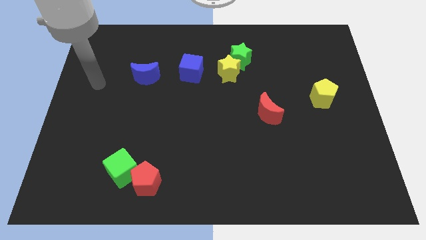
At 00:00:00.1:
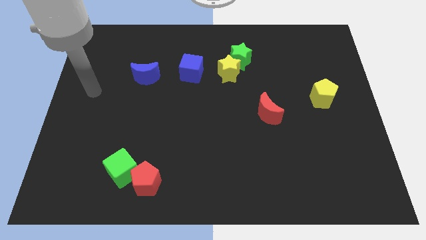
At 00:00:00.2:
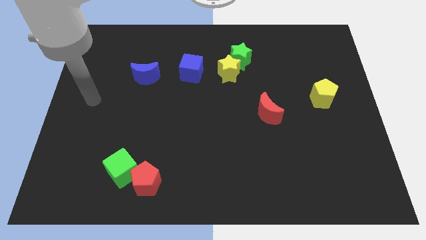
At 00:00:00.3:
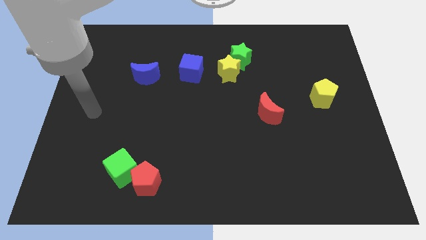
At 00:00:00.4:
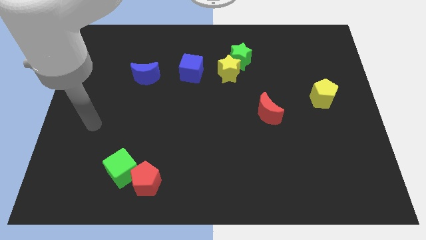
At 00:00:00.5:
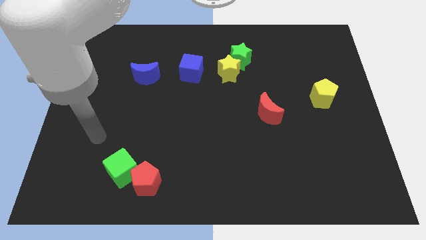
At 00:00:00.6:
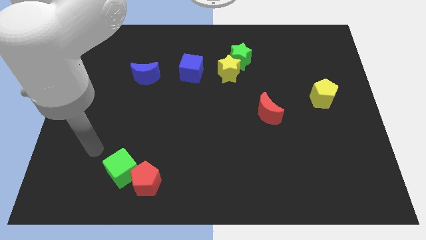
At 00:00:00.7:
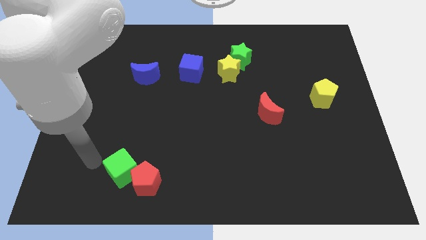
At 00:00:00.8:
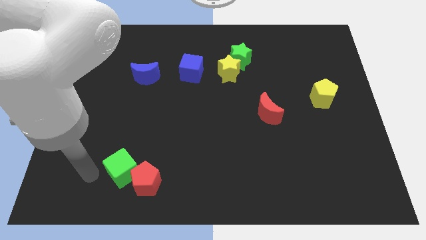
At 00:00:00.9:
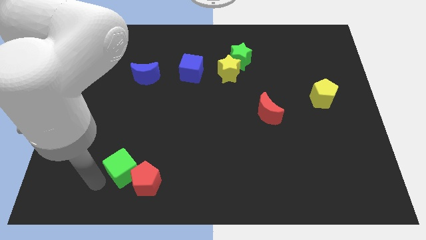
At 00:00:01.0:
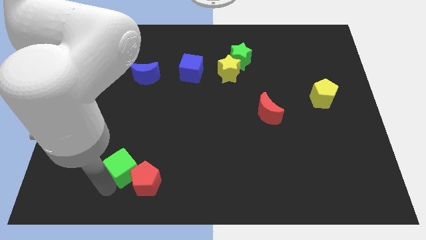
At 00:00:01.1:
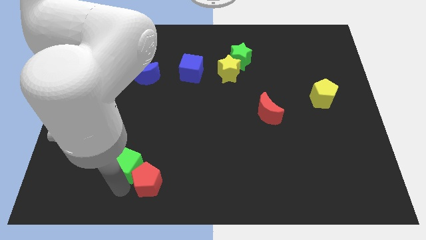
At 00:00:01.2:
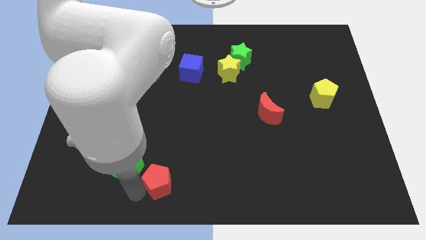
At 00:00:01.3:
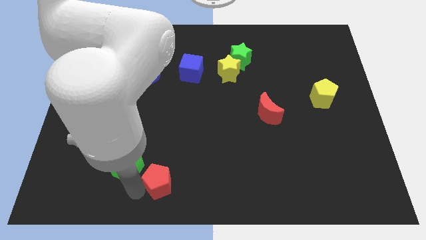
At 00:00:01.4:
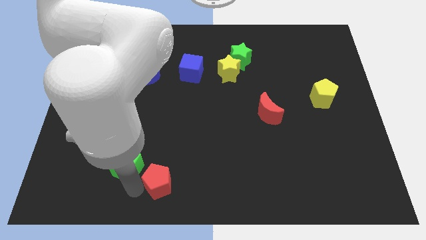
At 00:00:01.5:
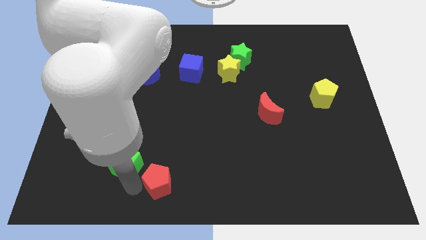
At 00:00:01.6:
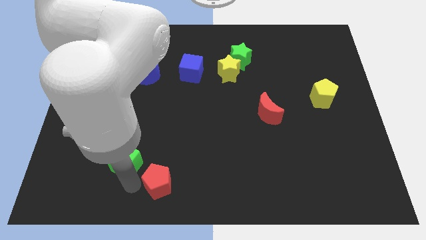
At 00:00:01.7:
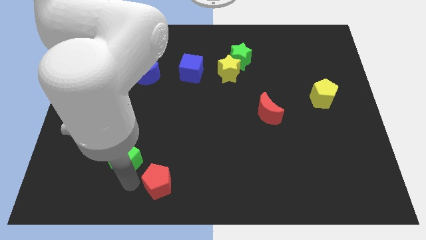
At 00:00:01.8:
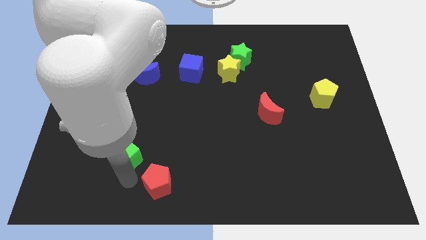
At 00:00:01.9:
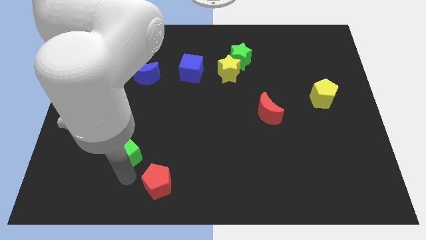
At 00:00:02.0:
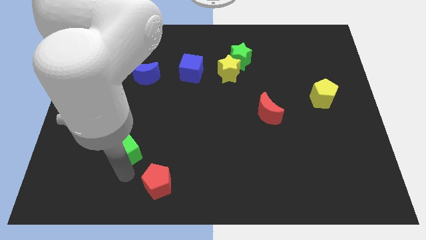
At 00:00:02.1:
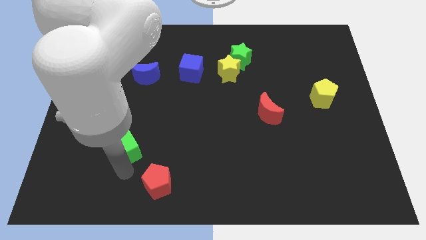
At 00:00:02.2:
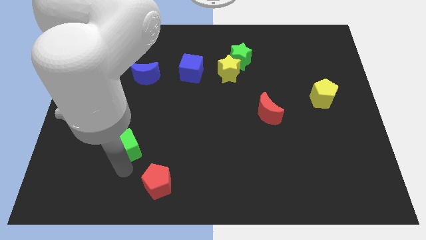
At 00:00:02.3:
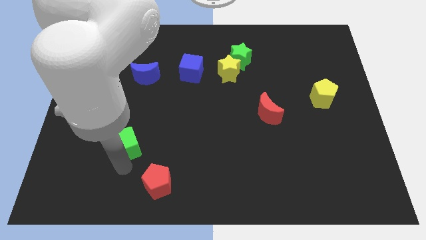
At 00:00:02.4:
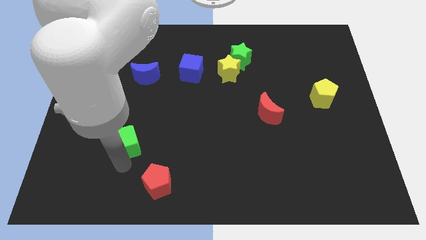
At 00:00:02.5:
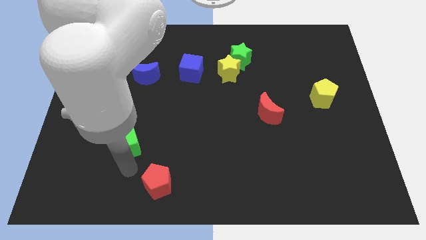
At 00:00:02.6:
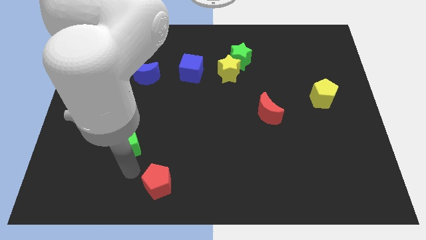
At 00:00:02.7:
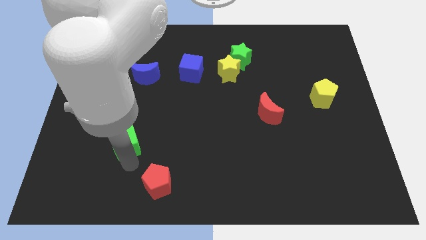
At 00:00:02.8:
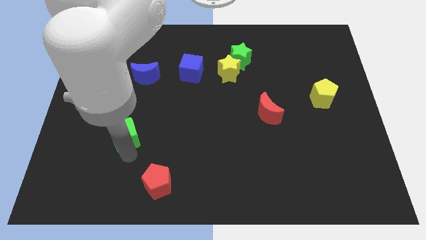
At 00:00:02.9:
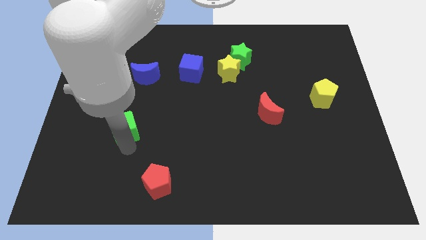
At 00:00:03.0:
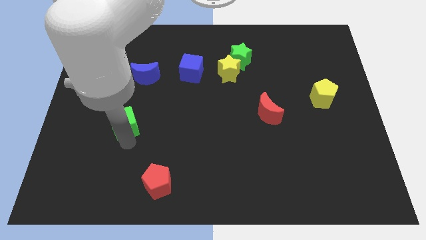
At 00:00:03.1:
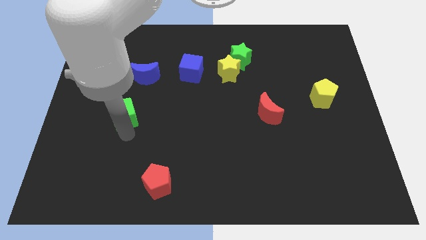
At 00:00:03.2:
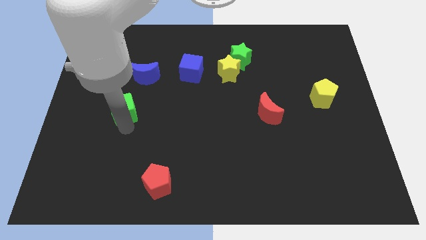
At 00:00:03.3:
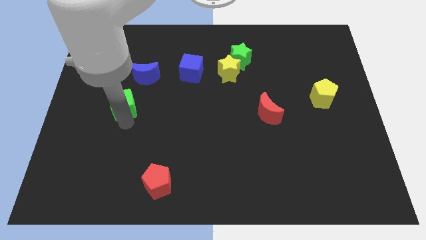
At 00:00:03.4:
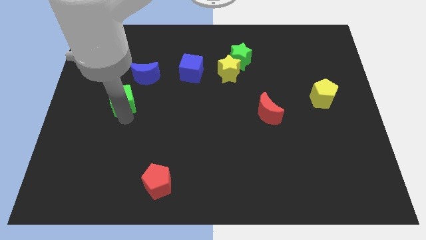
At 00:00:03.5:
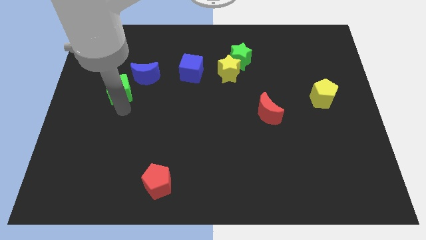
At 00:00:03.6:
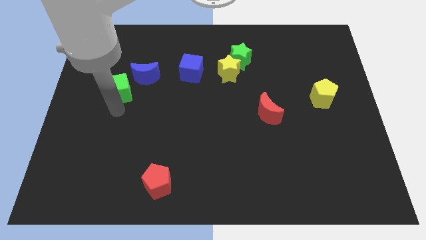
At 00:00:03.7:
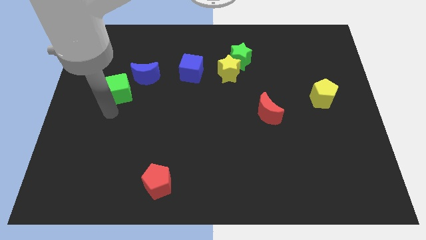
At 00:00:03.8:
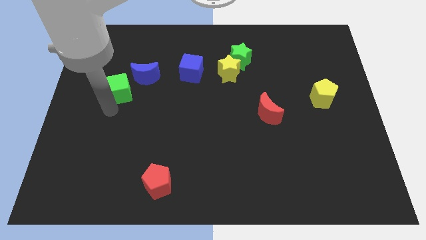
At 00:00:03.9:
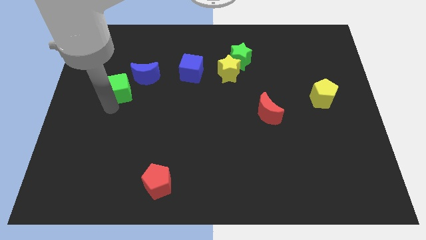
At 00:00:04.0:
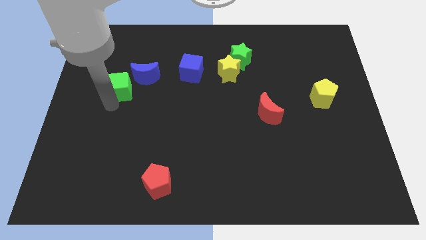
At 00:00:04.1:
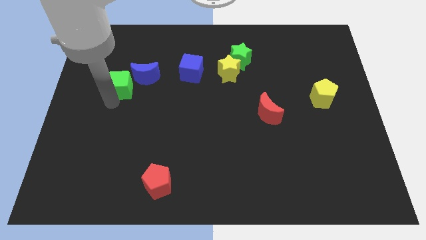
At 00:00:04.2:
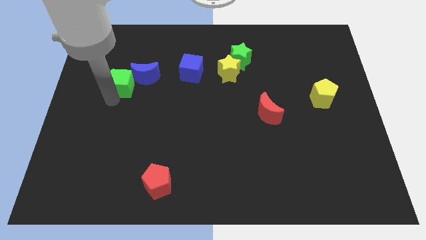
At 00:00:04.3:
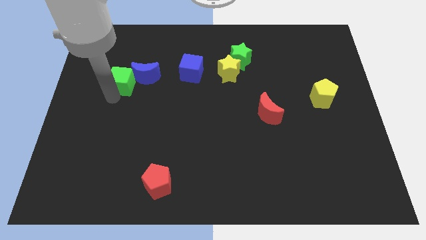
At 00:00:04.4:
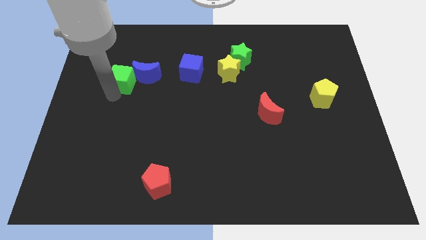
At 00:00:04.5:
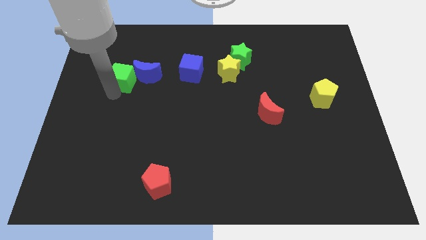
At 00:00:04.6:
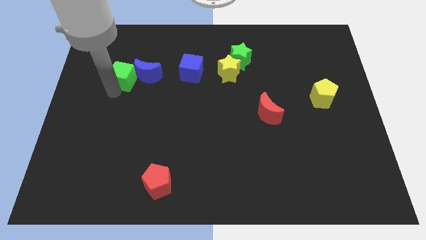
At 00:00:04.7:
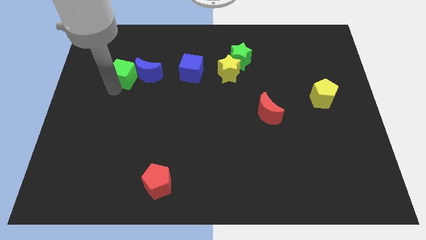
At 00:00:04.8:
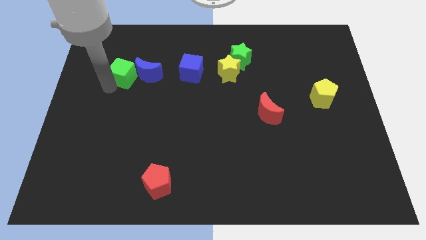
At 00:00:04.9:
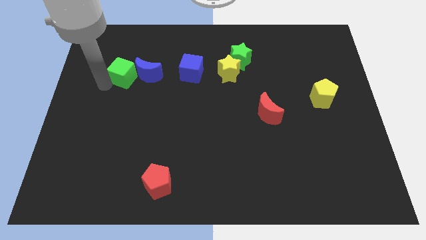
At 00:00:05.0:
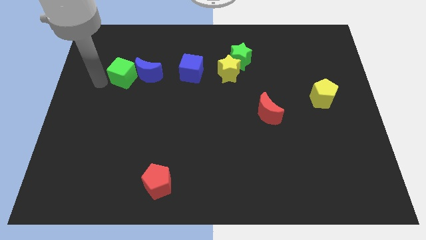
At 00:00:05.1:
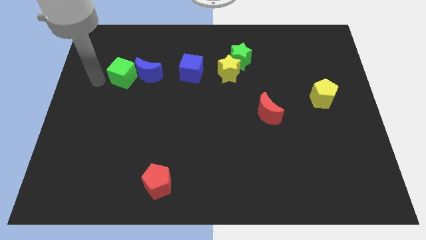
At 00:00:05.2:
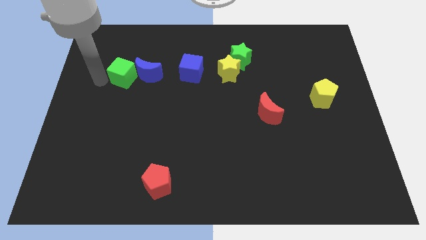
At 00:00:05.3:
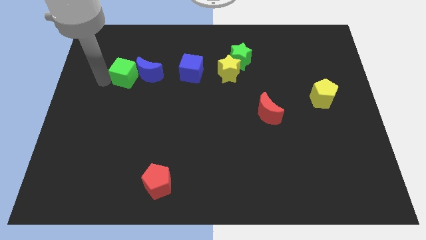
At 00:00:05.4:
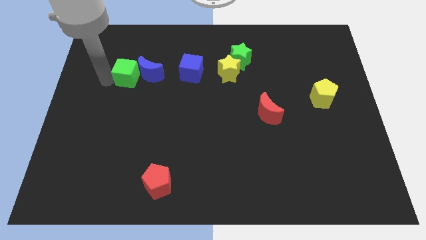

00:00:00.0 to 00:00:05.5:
slide the green cube left of the blue cube
